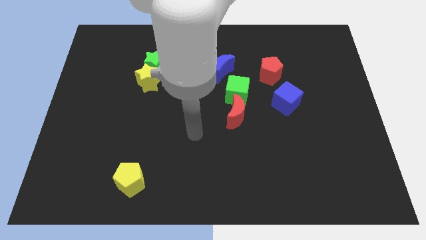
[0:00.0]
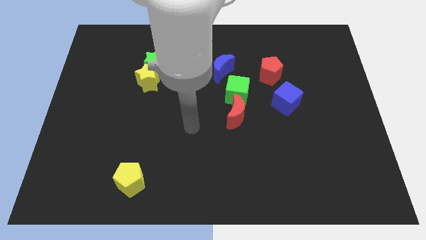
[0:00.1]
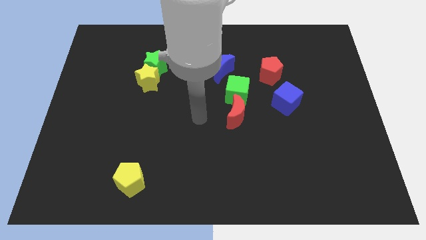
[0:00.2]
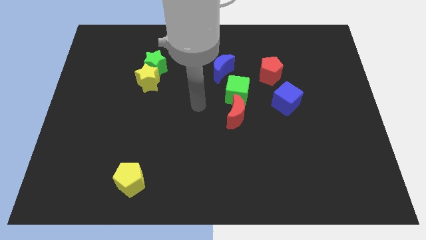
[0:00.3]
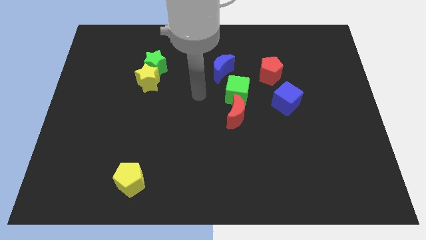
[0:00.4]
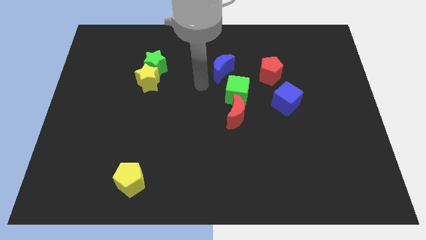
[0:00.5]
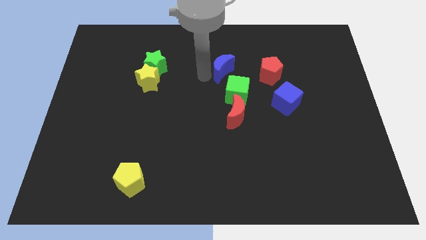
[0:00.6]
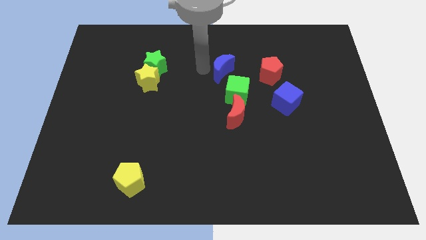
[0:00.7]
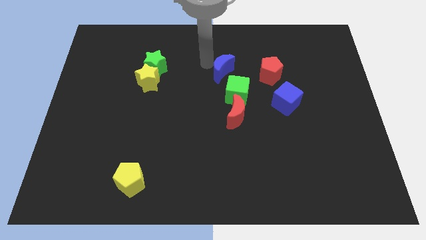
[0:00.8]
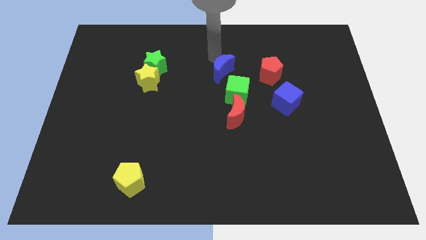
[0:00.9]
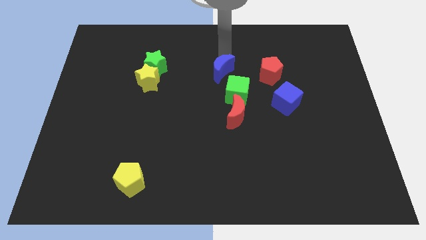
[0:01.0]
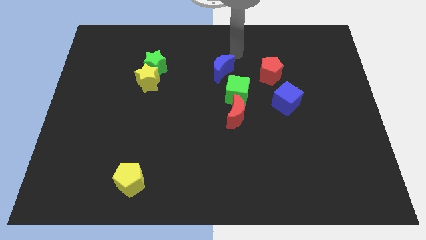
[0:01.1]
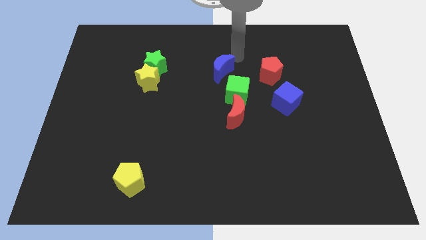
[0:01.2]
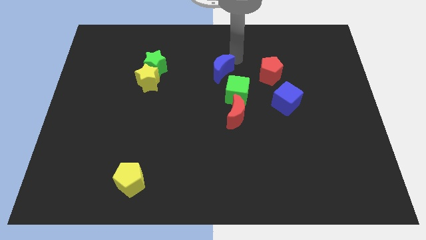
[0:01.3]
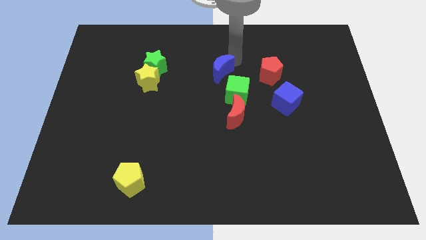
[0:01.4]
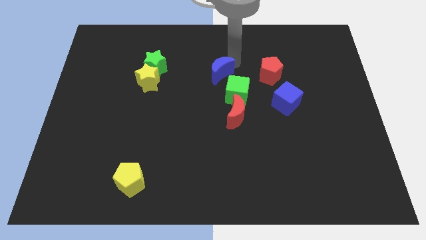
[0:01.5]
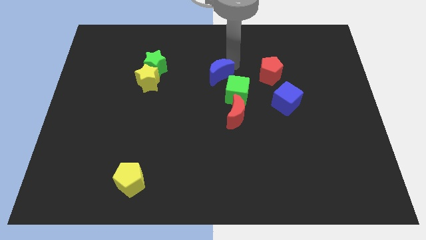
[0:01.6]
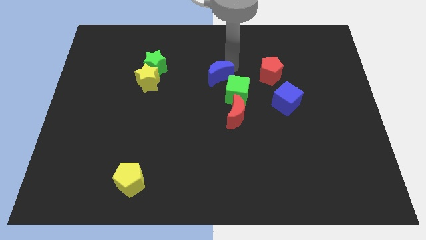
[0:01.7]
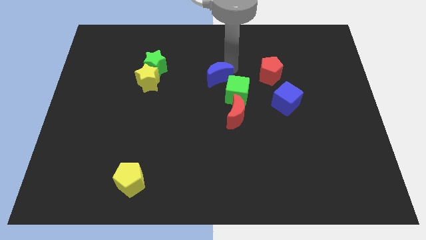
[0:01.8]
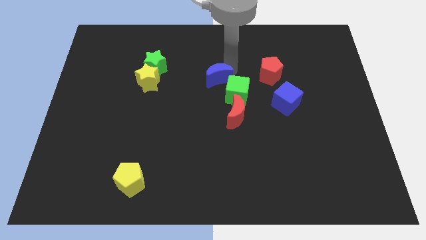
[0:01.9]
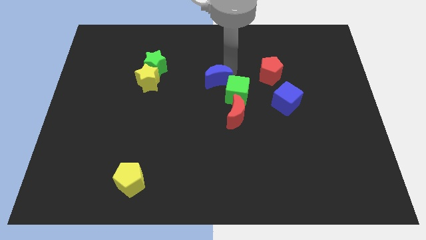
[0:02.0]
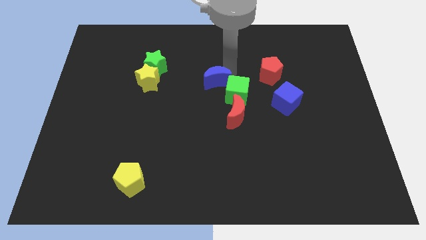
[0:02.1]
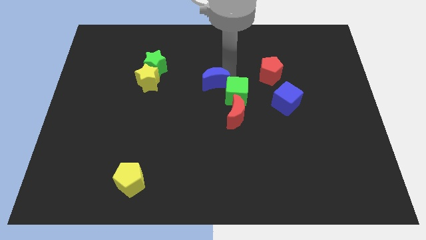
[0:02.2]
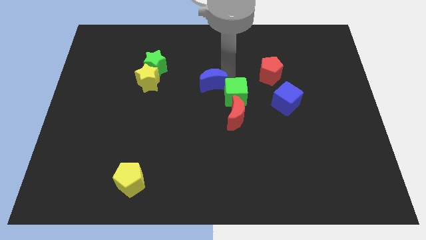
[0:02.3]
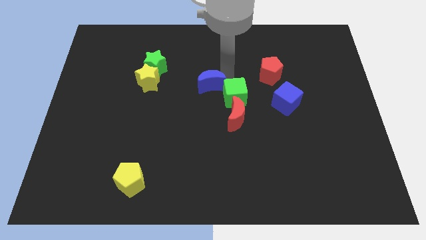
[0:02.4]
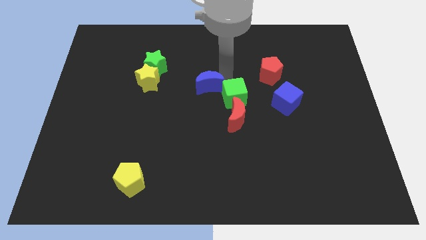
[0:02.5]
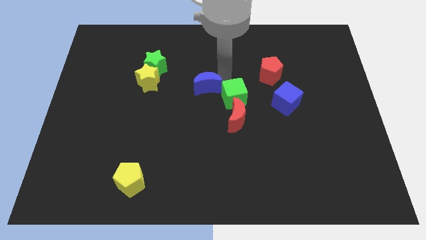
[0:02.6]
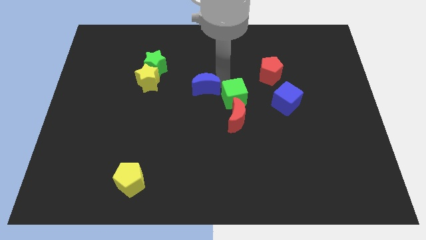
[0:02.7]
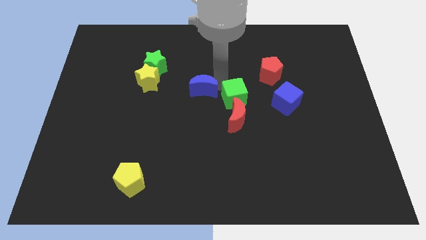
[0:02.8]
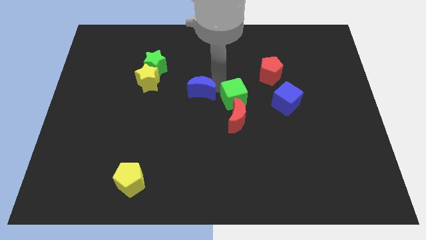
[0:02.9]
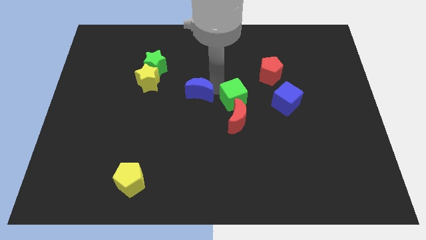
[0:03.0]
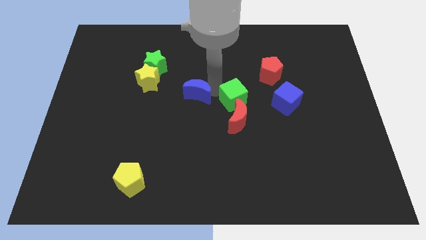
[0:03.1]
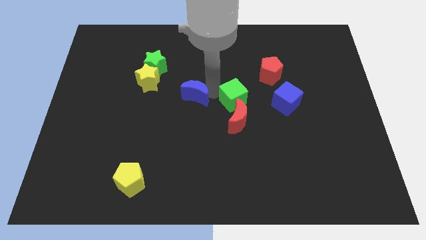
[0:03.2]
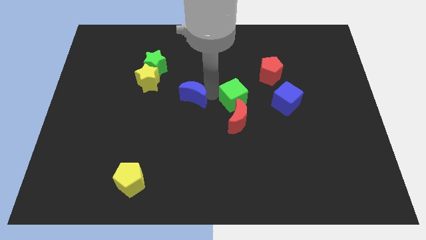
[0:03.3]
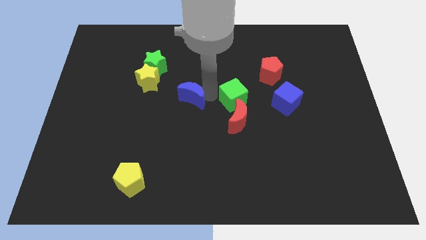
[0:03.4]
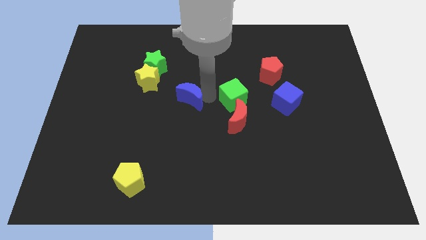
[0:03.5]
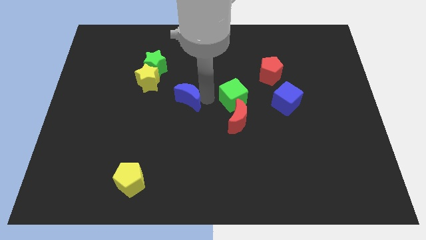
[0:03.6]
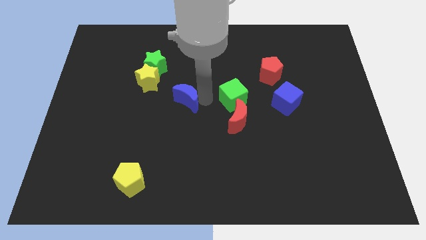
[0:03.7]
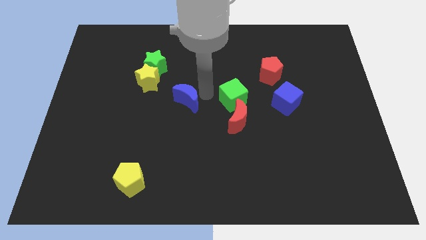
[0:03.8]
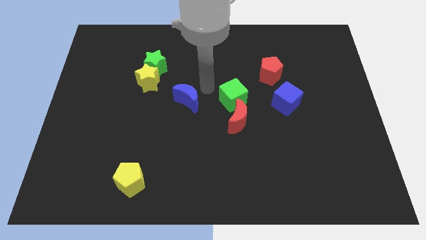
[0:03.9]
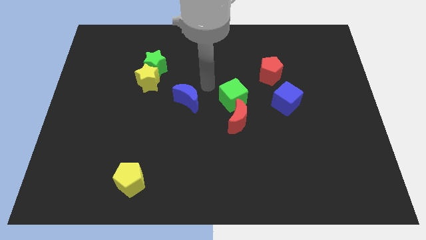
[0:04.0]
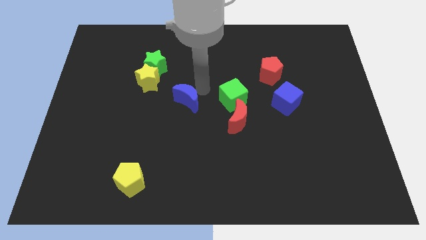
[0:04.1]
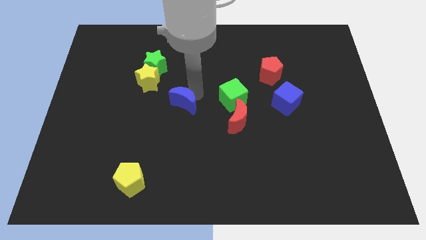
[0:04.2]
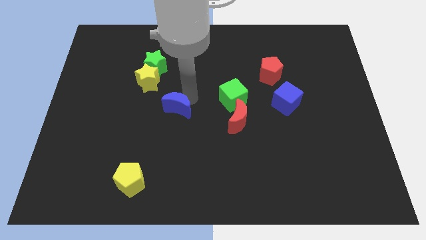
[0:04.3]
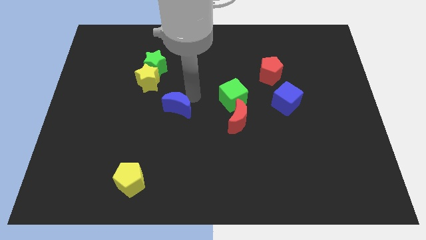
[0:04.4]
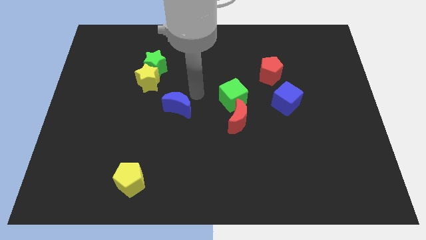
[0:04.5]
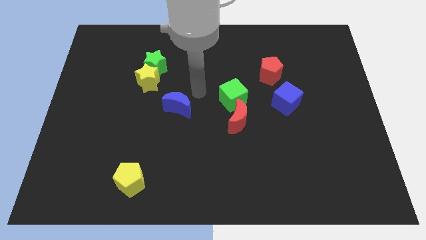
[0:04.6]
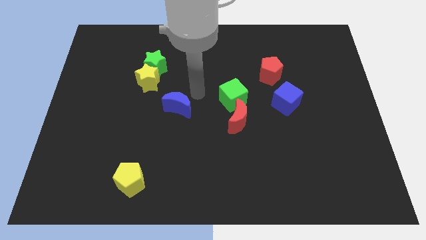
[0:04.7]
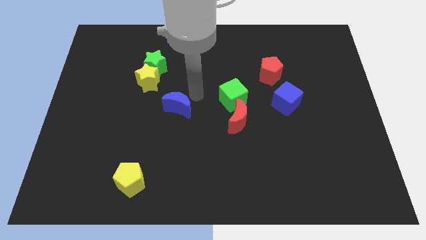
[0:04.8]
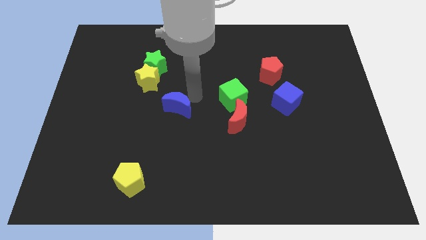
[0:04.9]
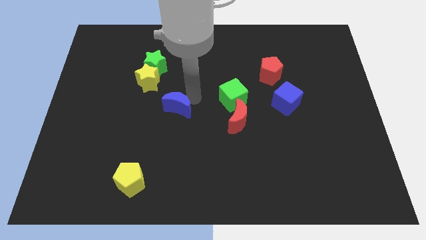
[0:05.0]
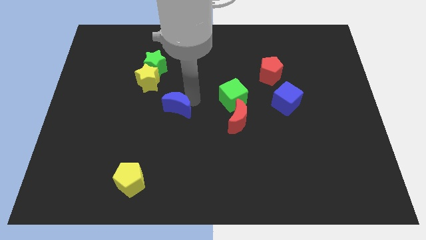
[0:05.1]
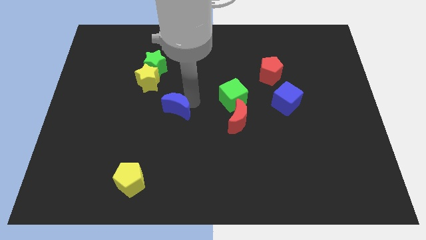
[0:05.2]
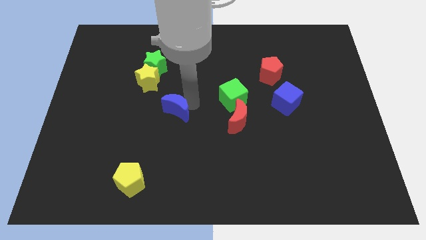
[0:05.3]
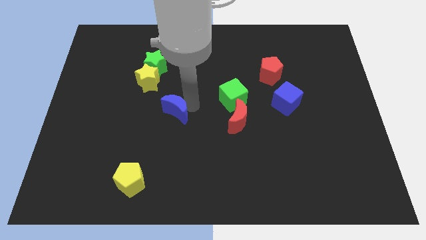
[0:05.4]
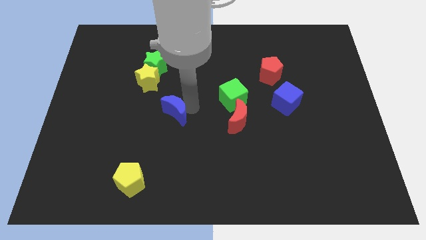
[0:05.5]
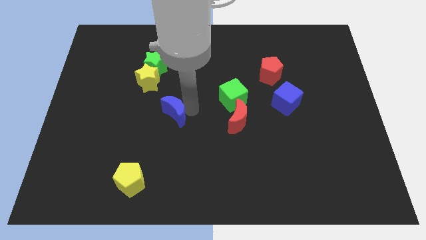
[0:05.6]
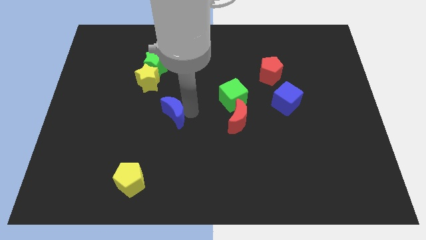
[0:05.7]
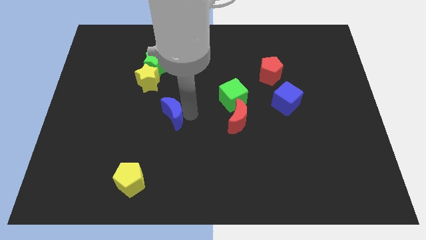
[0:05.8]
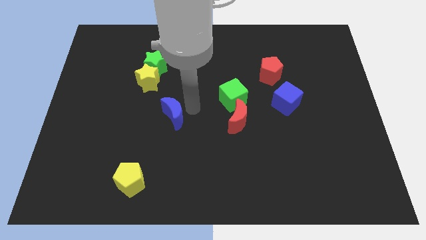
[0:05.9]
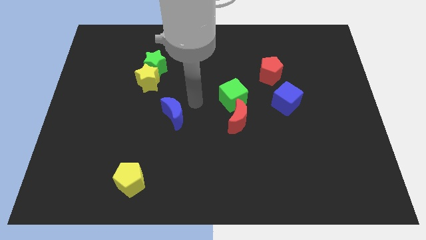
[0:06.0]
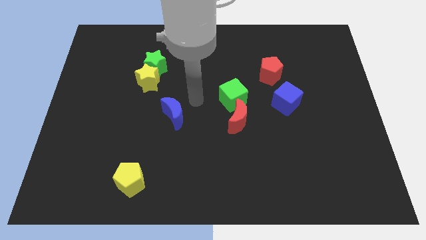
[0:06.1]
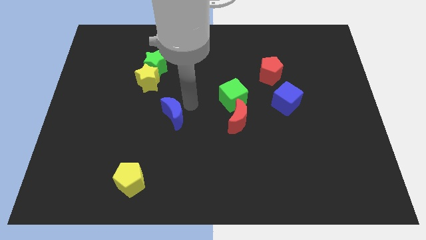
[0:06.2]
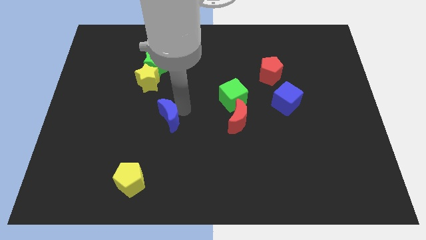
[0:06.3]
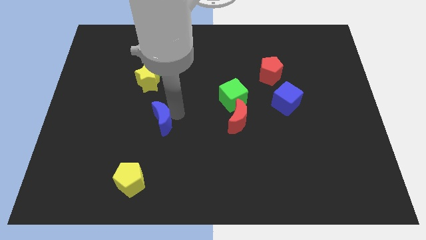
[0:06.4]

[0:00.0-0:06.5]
move the blue moon diagonally downwards and to the left

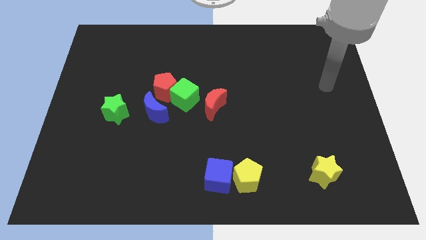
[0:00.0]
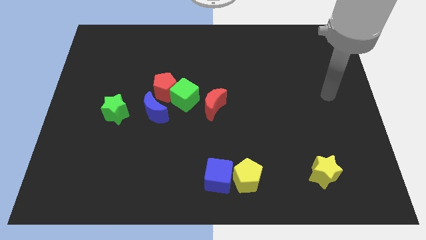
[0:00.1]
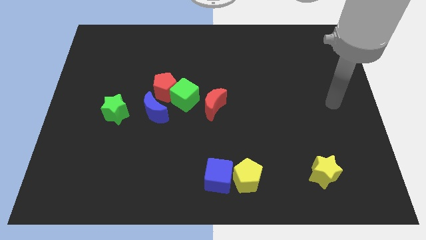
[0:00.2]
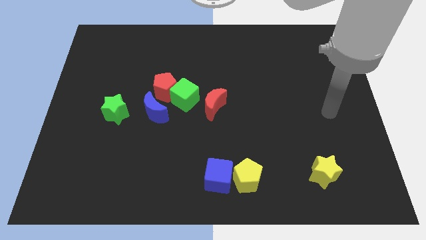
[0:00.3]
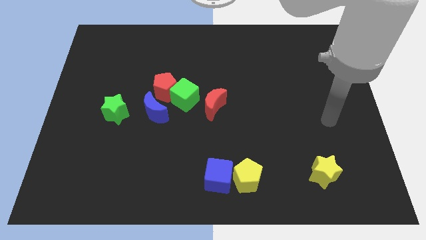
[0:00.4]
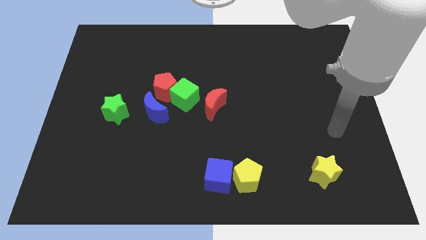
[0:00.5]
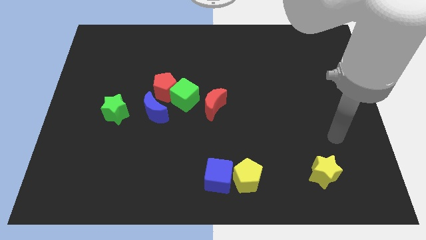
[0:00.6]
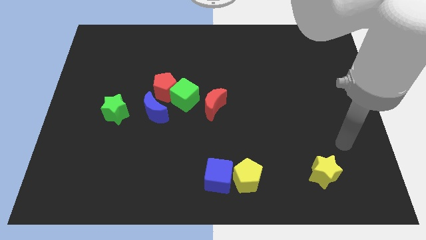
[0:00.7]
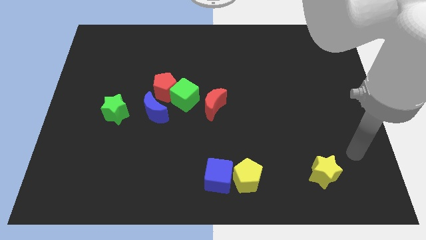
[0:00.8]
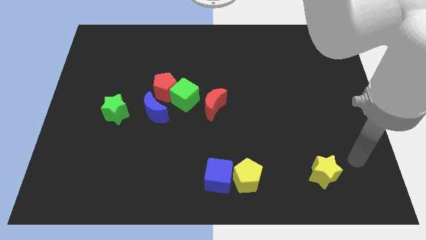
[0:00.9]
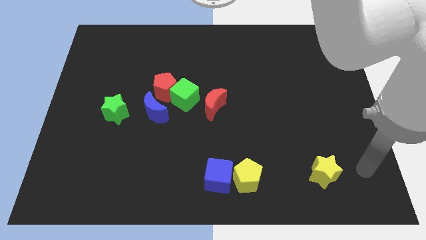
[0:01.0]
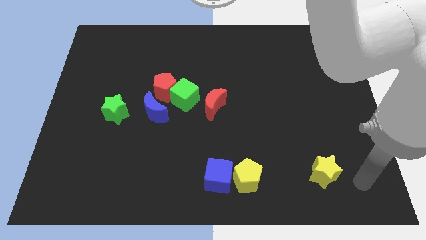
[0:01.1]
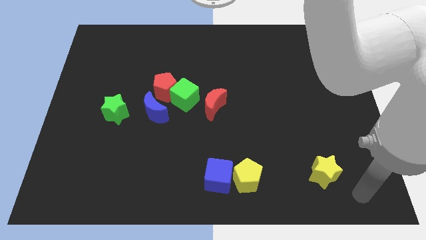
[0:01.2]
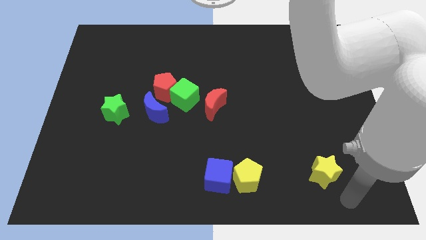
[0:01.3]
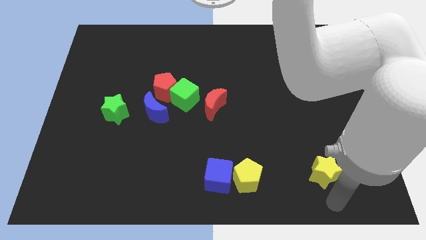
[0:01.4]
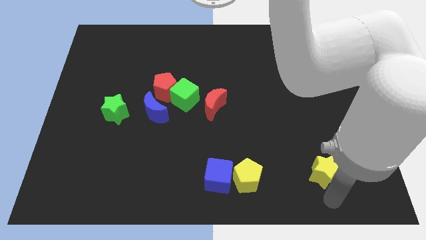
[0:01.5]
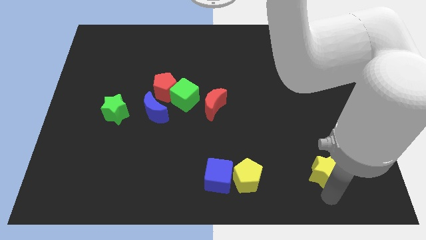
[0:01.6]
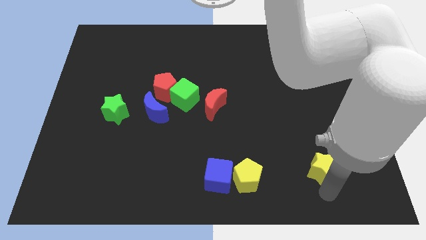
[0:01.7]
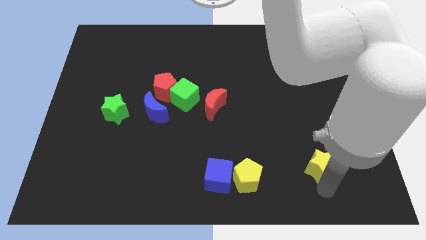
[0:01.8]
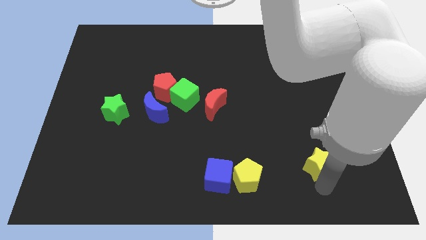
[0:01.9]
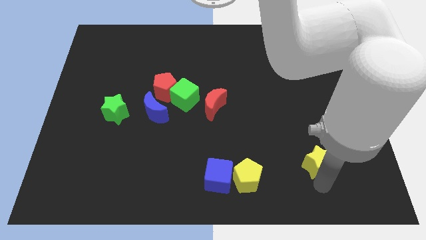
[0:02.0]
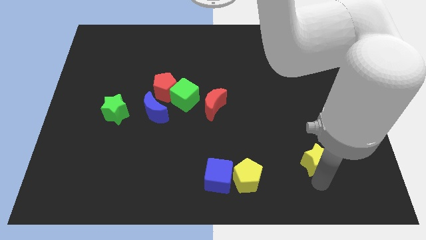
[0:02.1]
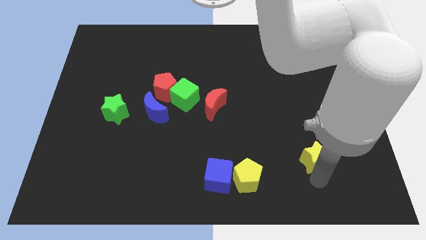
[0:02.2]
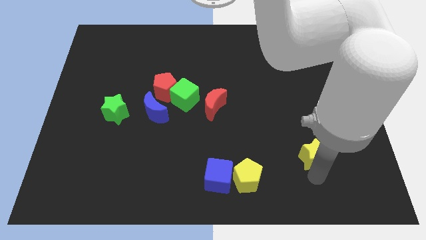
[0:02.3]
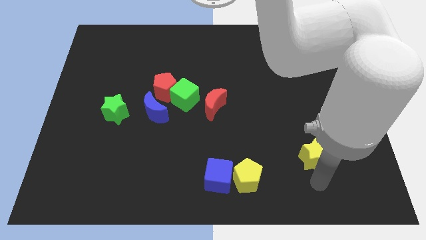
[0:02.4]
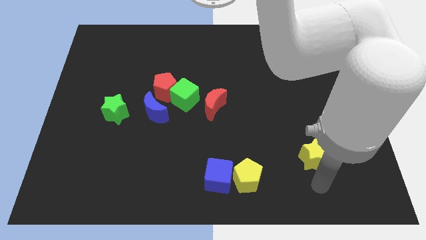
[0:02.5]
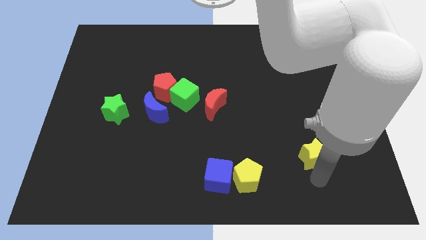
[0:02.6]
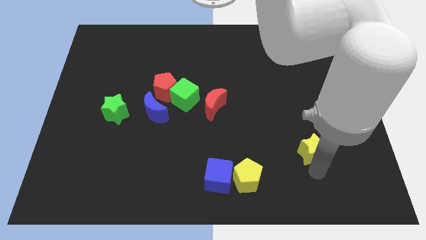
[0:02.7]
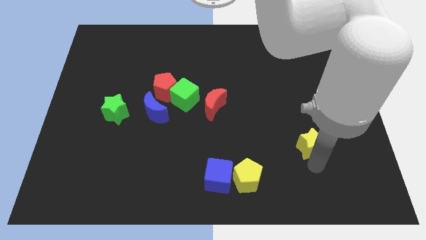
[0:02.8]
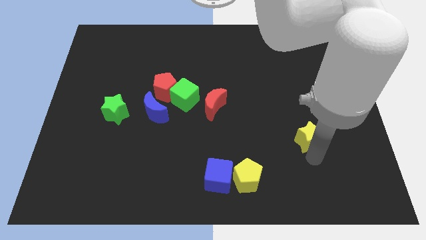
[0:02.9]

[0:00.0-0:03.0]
push the yellow star up somewhat
